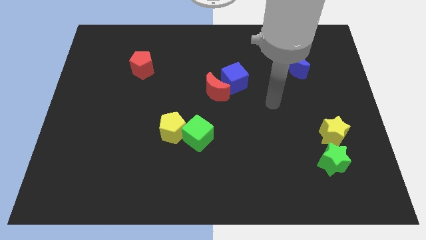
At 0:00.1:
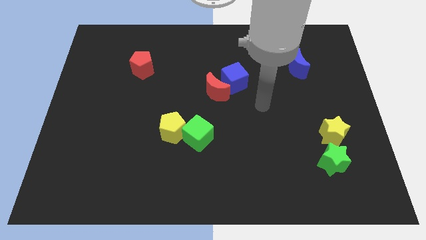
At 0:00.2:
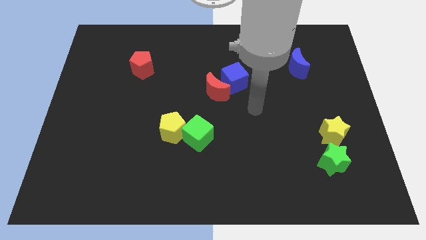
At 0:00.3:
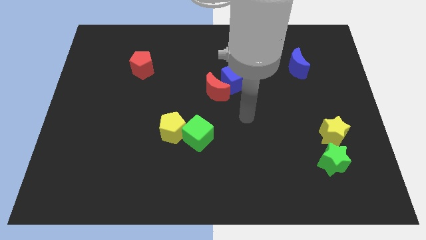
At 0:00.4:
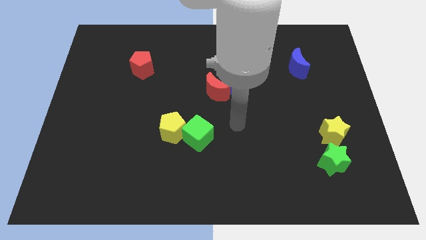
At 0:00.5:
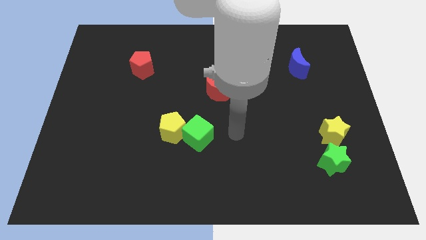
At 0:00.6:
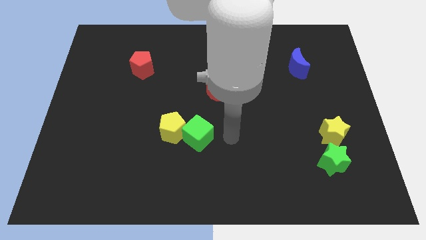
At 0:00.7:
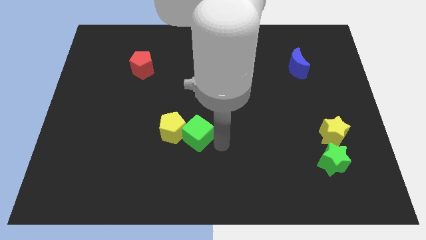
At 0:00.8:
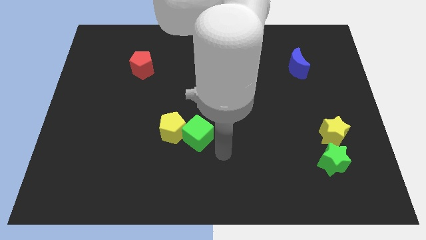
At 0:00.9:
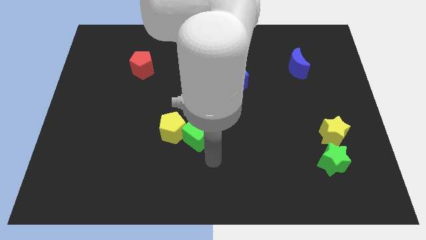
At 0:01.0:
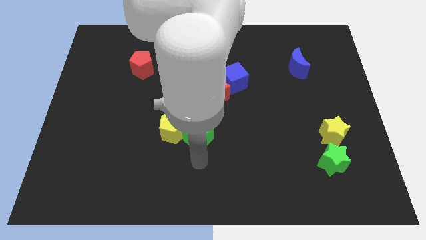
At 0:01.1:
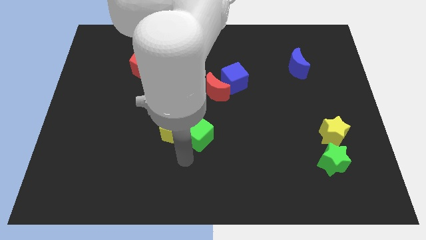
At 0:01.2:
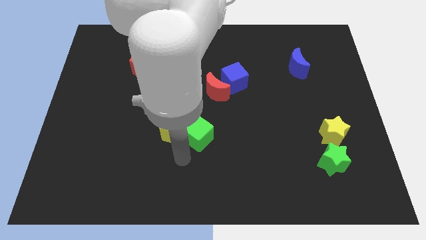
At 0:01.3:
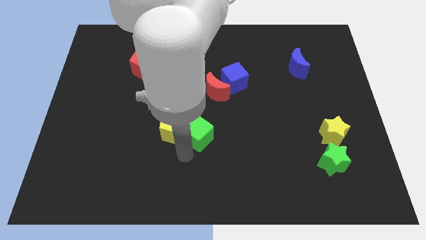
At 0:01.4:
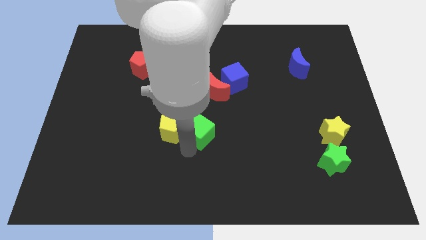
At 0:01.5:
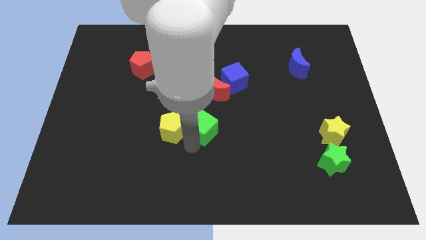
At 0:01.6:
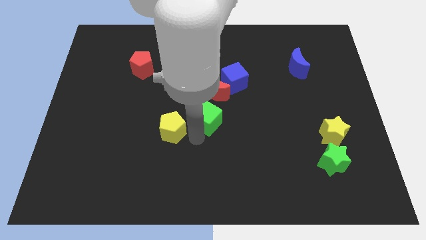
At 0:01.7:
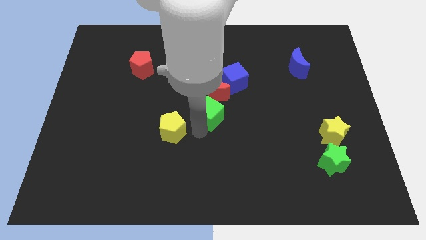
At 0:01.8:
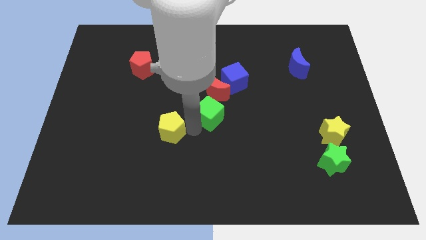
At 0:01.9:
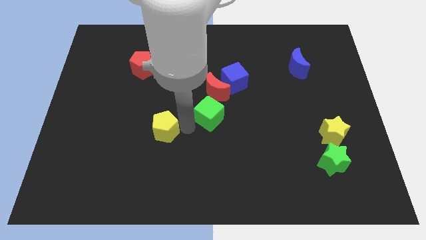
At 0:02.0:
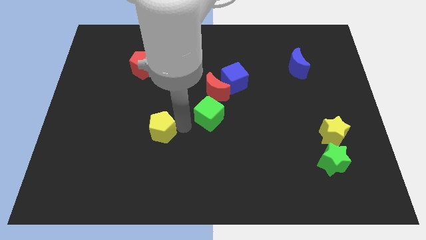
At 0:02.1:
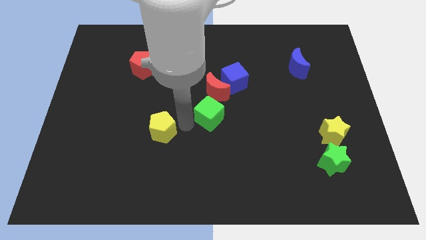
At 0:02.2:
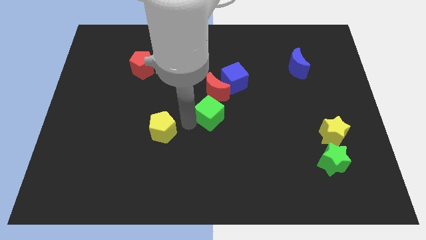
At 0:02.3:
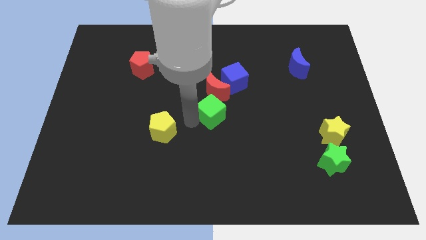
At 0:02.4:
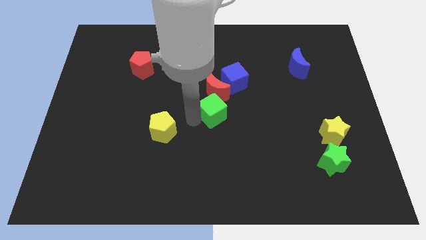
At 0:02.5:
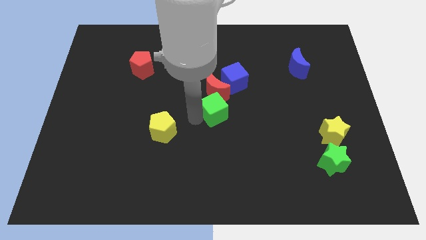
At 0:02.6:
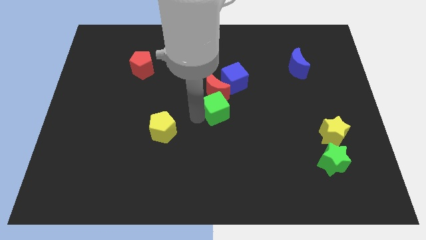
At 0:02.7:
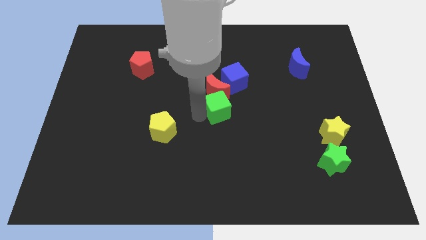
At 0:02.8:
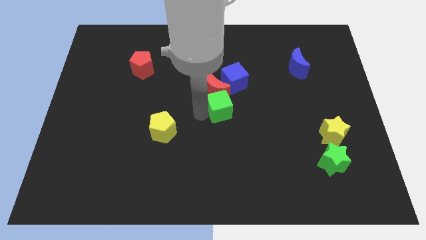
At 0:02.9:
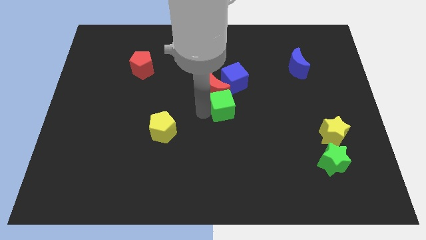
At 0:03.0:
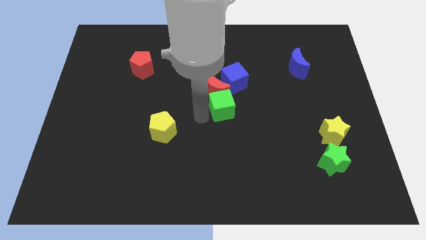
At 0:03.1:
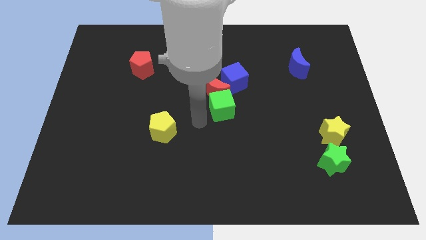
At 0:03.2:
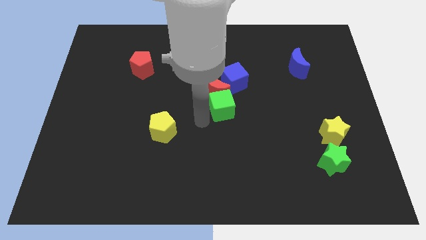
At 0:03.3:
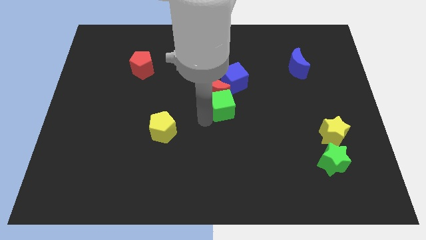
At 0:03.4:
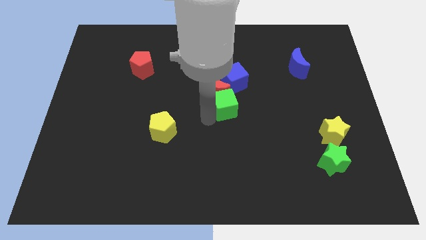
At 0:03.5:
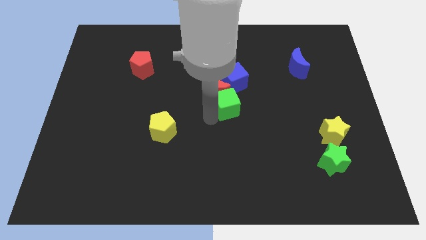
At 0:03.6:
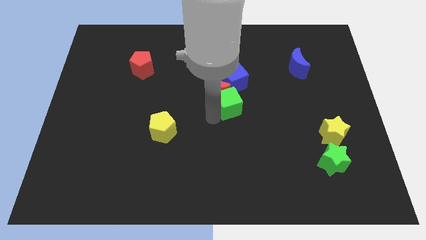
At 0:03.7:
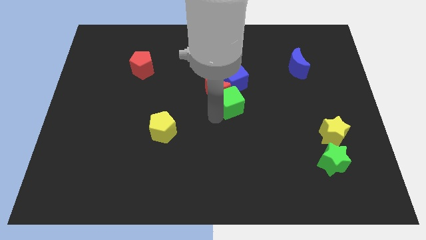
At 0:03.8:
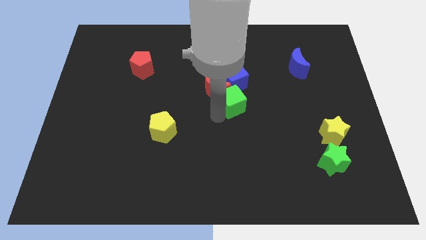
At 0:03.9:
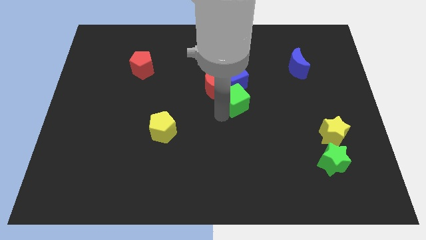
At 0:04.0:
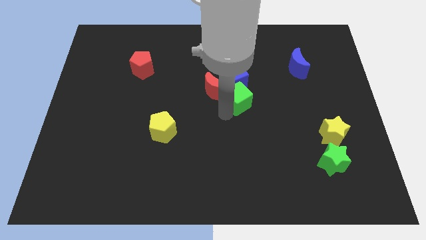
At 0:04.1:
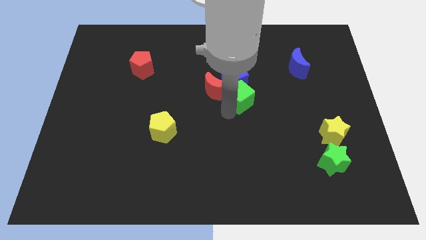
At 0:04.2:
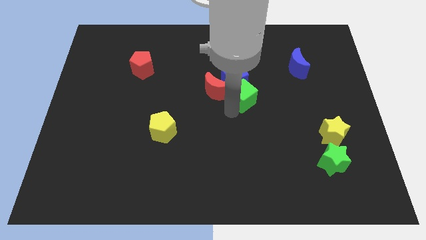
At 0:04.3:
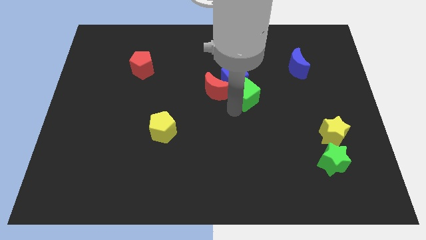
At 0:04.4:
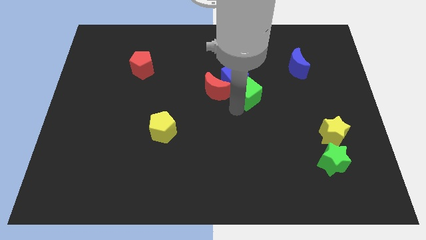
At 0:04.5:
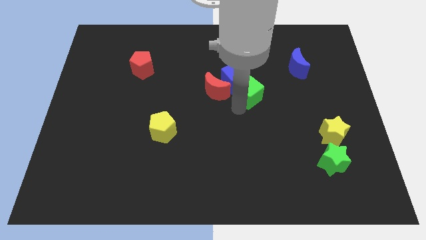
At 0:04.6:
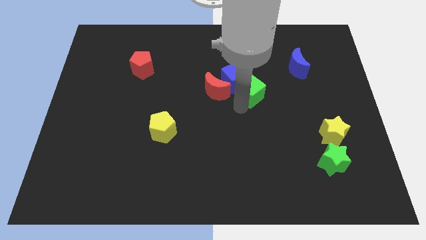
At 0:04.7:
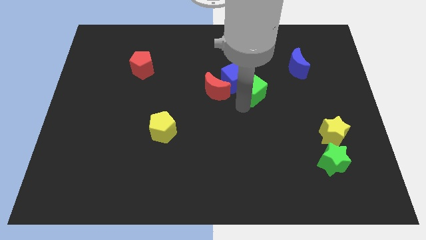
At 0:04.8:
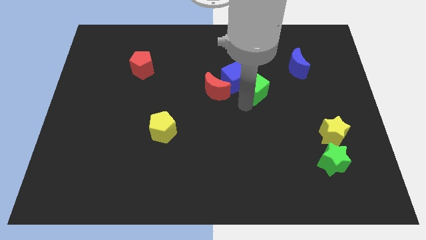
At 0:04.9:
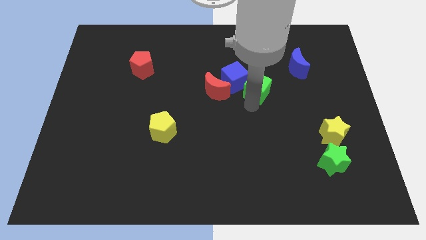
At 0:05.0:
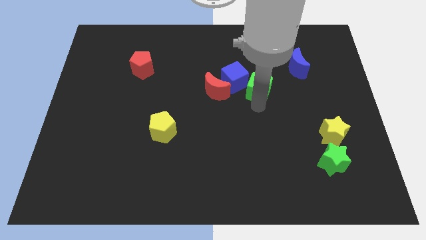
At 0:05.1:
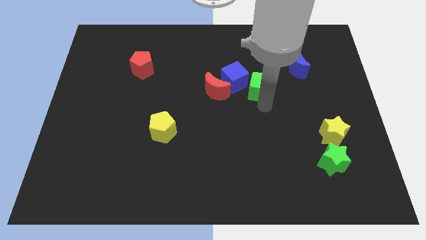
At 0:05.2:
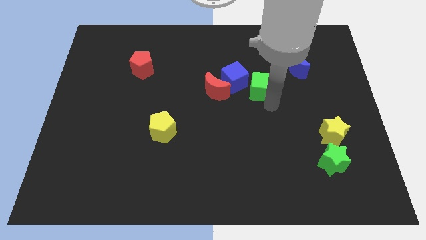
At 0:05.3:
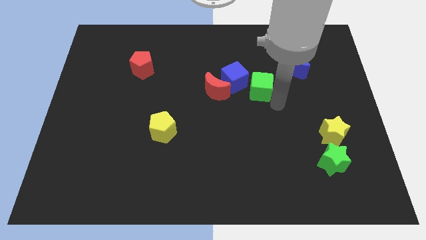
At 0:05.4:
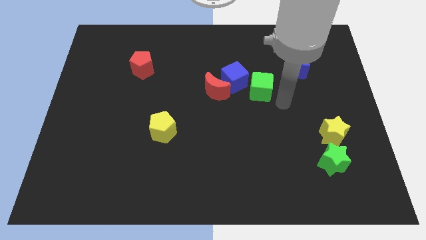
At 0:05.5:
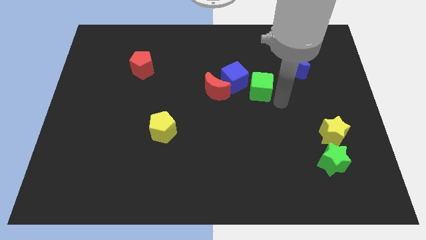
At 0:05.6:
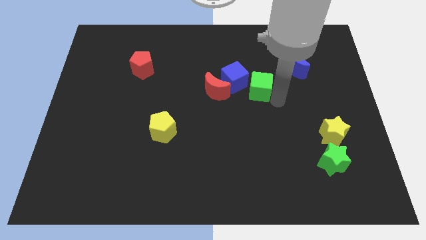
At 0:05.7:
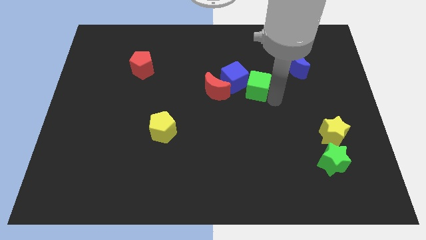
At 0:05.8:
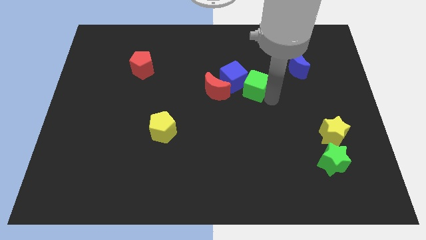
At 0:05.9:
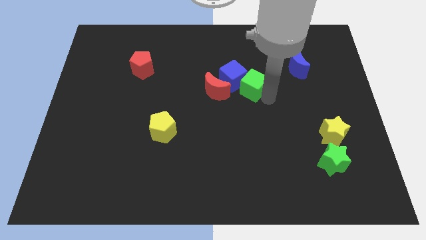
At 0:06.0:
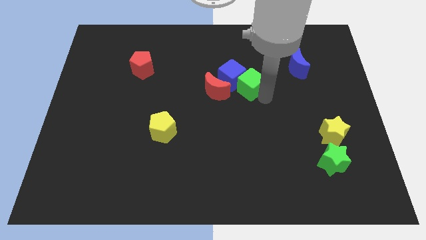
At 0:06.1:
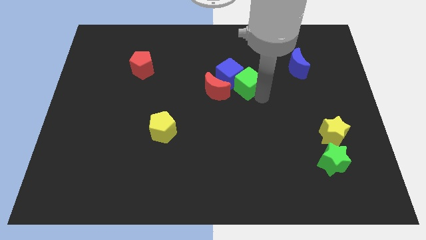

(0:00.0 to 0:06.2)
push the green cube to the top right of the red moon

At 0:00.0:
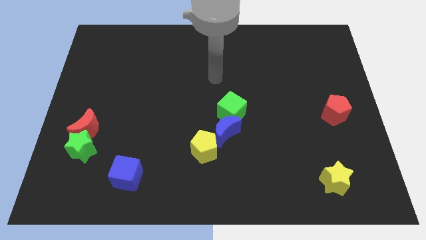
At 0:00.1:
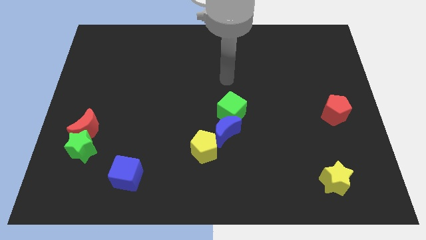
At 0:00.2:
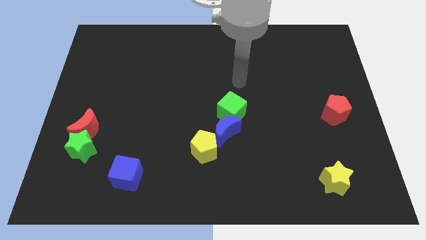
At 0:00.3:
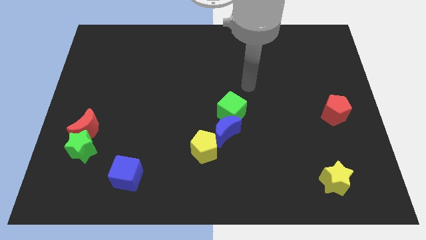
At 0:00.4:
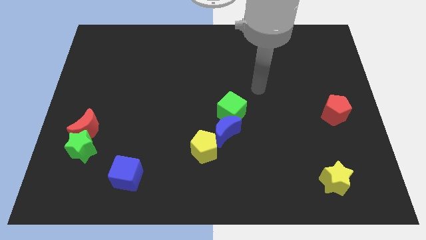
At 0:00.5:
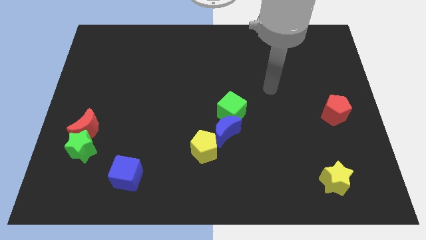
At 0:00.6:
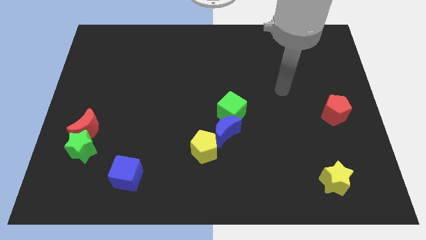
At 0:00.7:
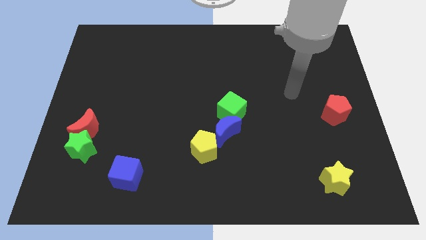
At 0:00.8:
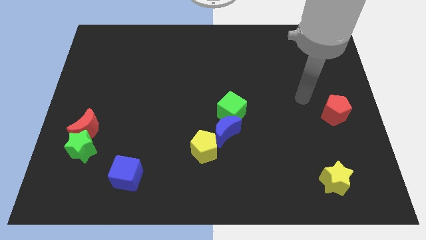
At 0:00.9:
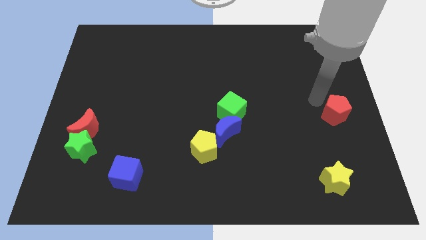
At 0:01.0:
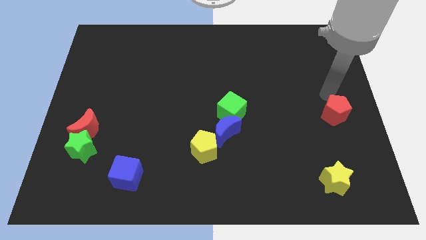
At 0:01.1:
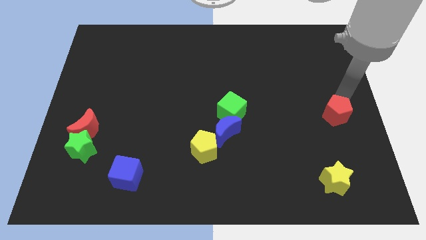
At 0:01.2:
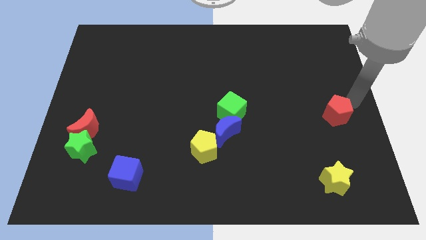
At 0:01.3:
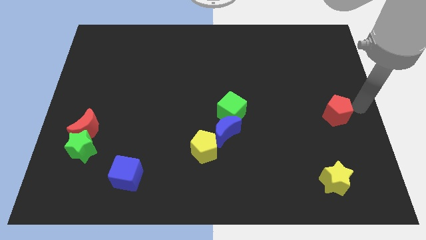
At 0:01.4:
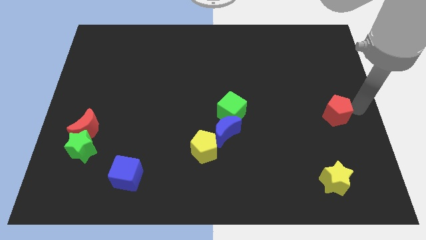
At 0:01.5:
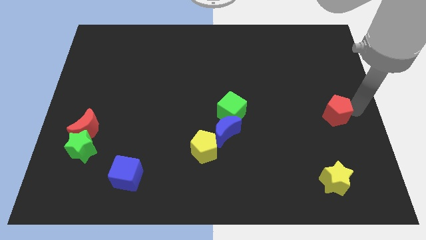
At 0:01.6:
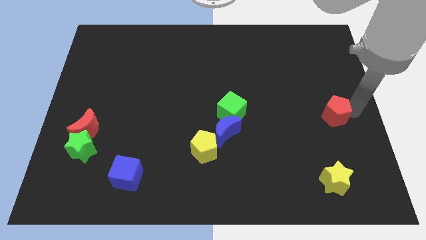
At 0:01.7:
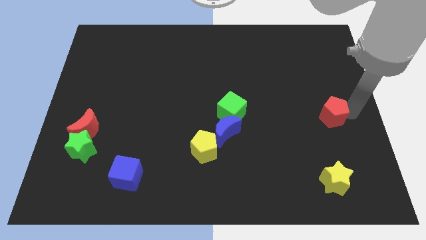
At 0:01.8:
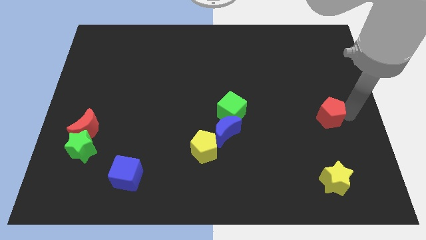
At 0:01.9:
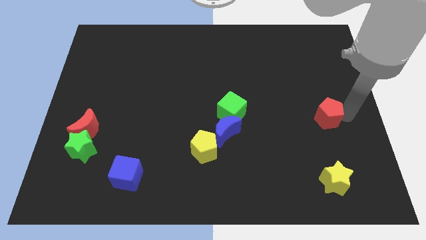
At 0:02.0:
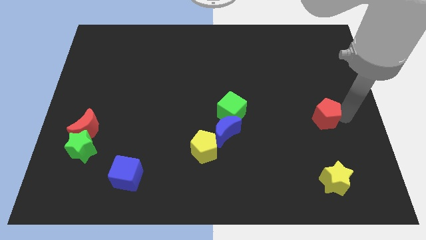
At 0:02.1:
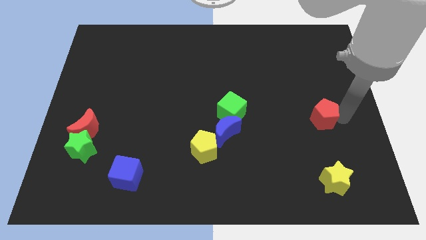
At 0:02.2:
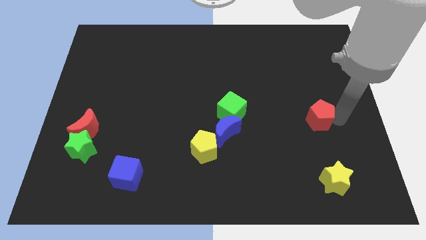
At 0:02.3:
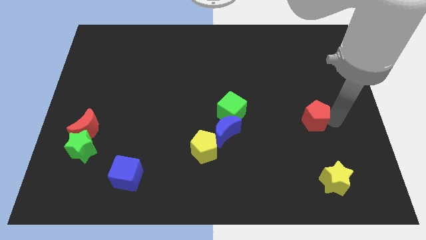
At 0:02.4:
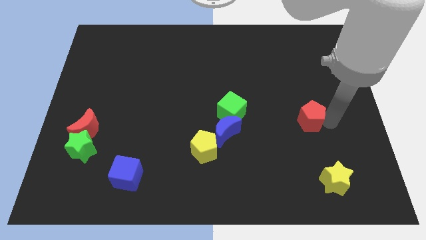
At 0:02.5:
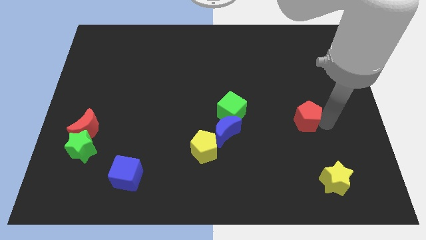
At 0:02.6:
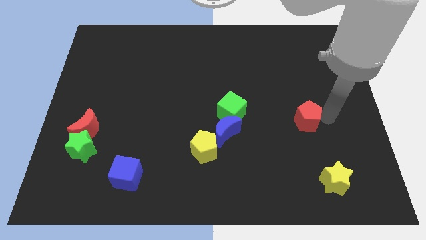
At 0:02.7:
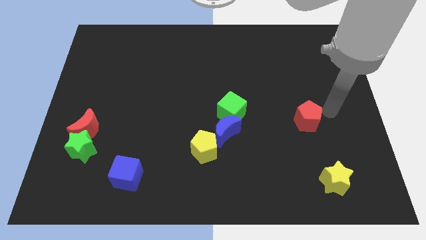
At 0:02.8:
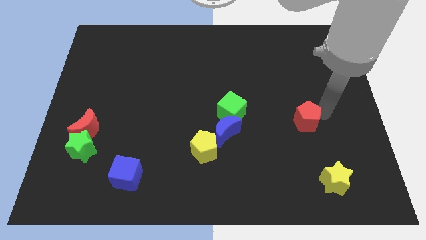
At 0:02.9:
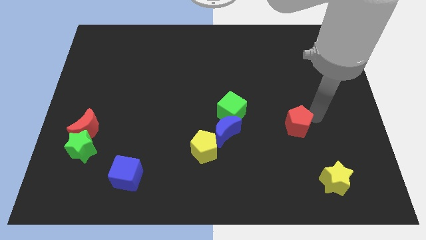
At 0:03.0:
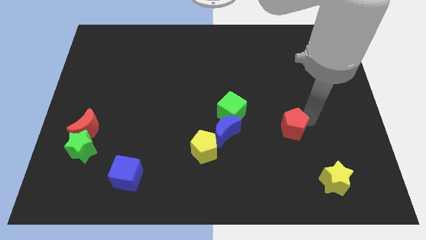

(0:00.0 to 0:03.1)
push the red pentagon to the right side of the blue moon
